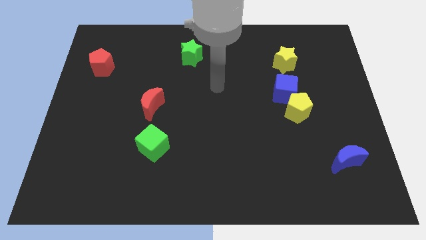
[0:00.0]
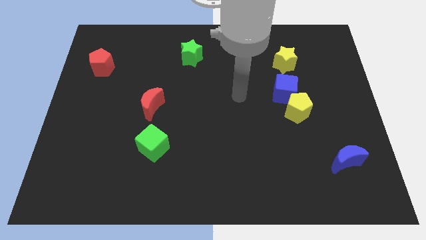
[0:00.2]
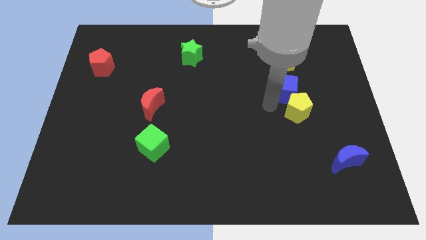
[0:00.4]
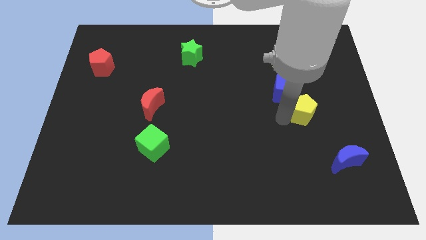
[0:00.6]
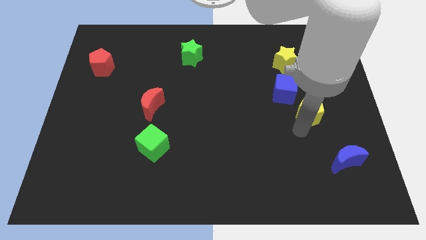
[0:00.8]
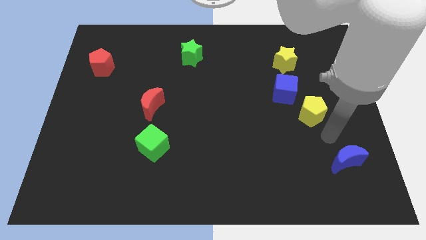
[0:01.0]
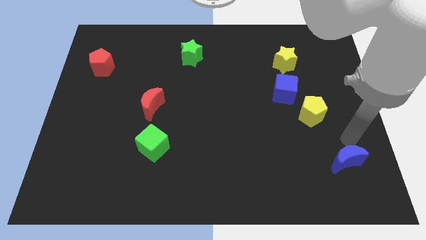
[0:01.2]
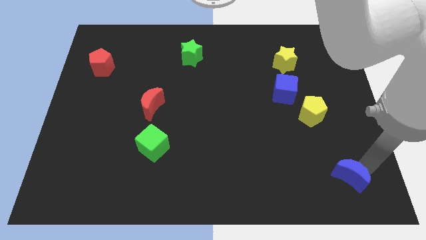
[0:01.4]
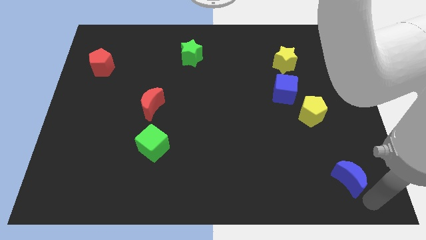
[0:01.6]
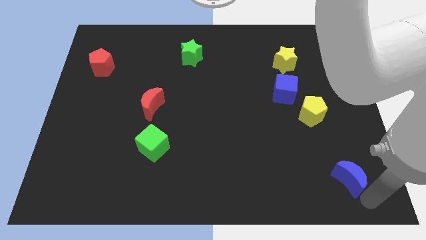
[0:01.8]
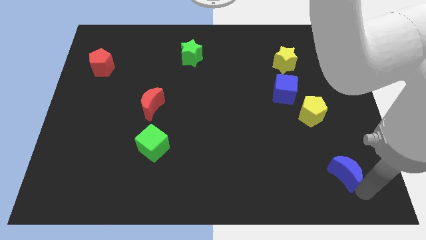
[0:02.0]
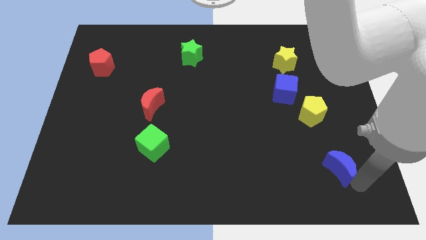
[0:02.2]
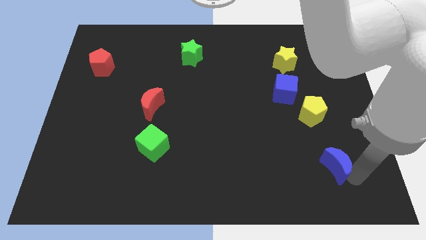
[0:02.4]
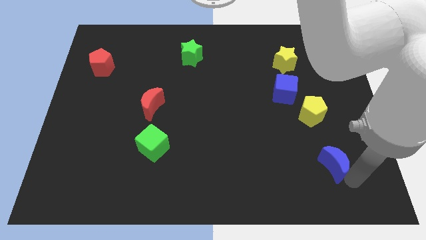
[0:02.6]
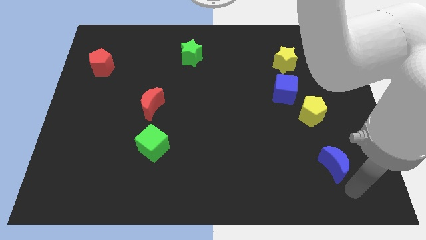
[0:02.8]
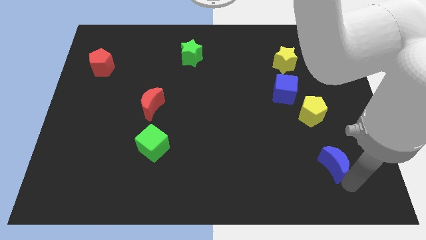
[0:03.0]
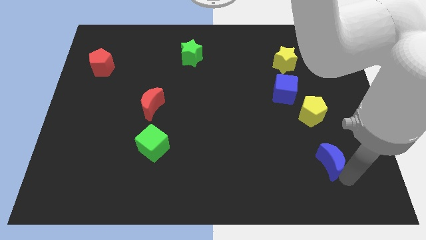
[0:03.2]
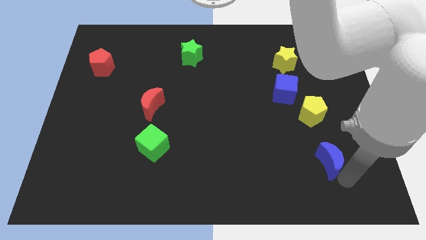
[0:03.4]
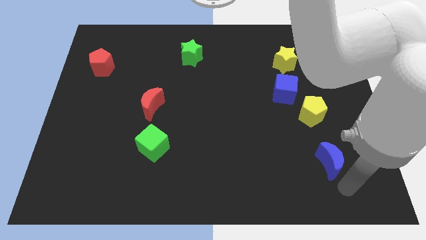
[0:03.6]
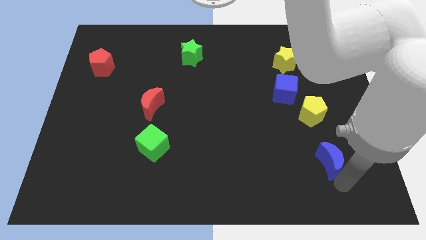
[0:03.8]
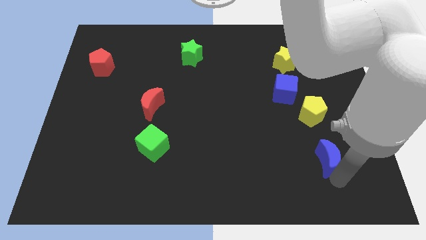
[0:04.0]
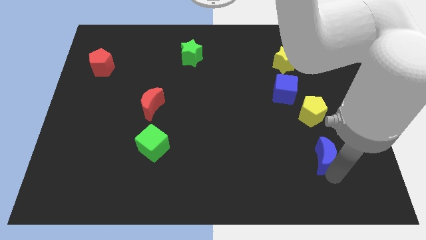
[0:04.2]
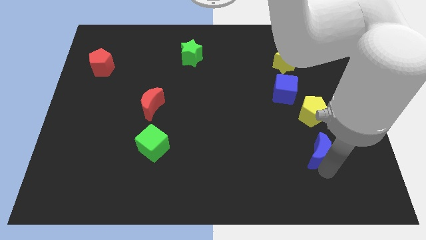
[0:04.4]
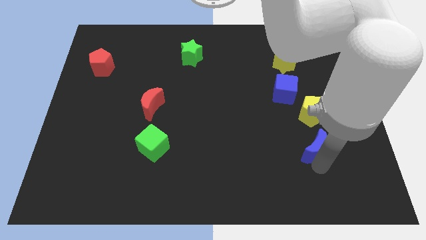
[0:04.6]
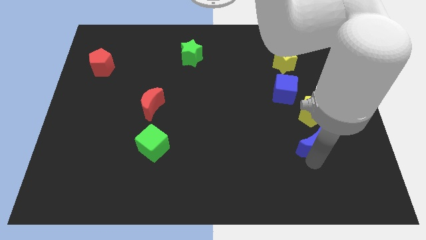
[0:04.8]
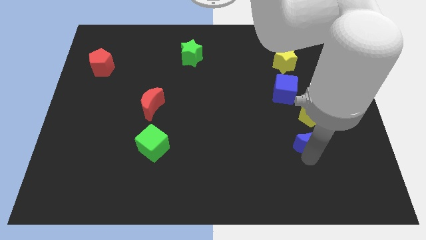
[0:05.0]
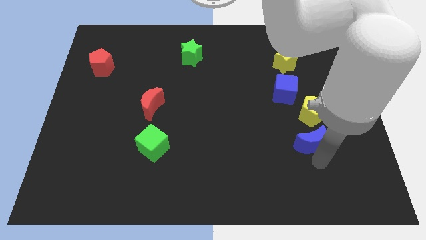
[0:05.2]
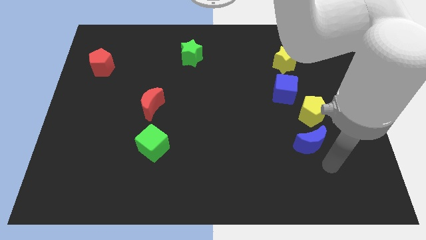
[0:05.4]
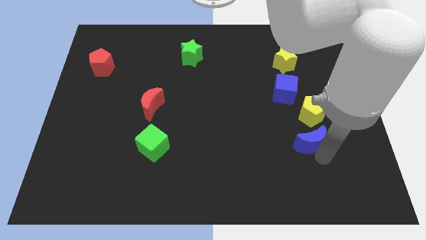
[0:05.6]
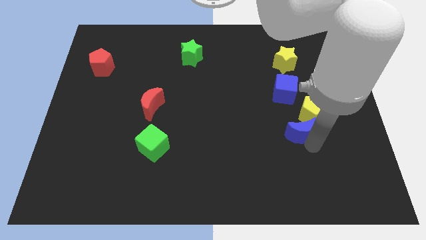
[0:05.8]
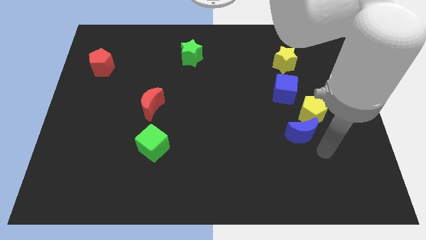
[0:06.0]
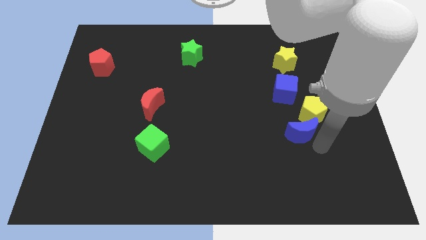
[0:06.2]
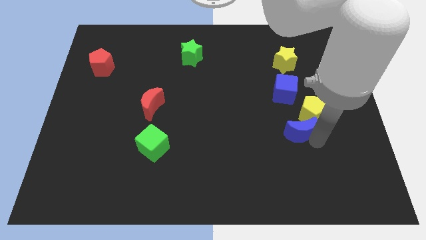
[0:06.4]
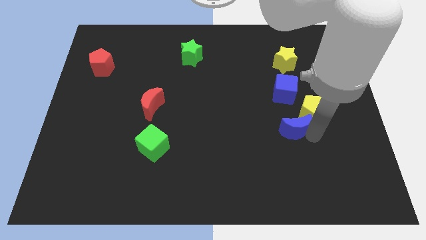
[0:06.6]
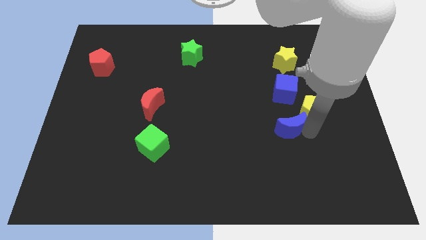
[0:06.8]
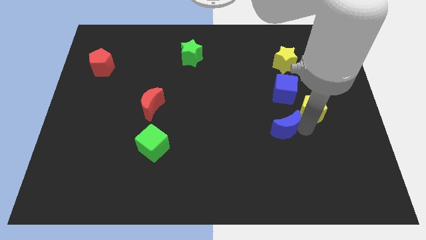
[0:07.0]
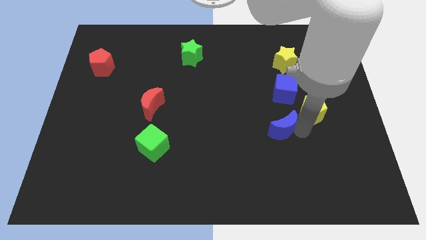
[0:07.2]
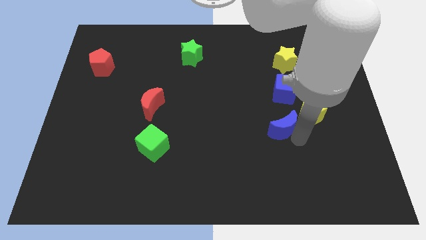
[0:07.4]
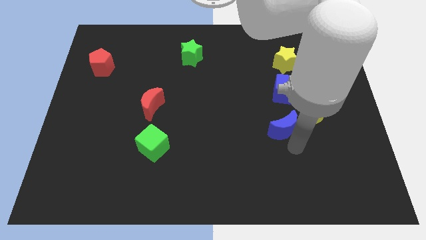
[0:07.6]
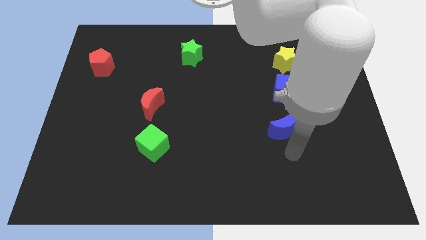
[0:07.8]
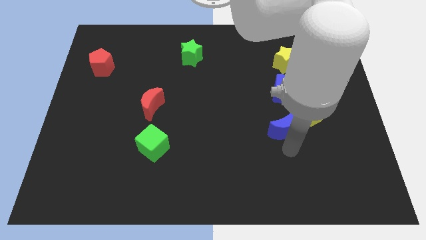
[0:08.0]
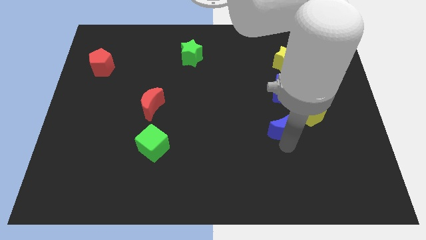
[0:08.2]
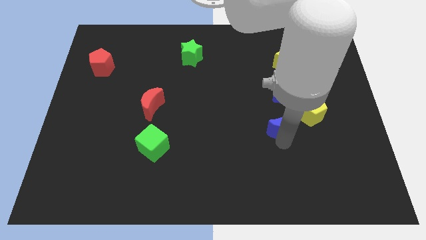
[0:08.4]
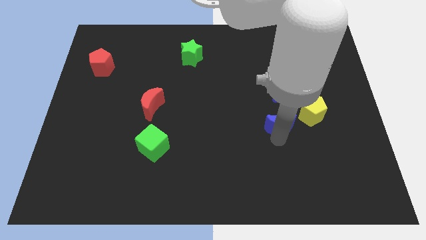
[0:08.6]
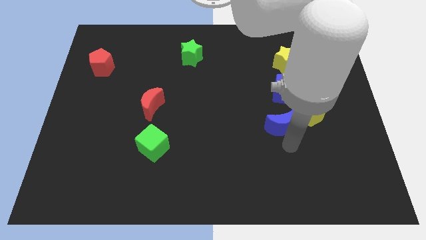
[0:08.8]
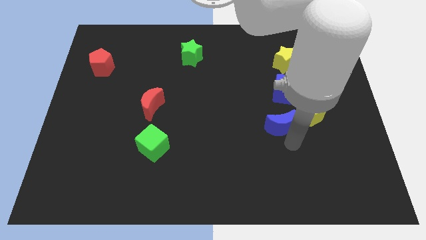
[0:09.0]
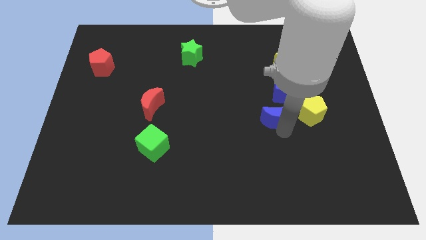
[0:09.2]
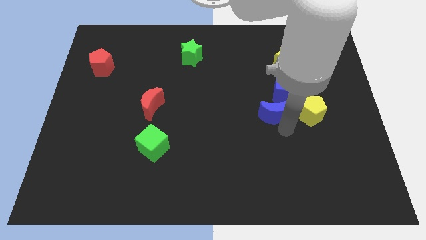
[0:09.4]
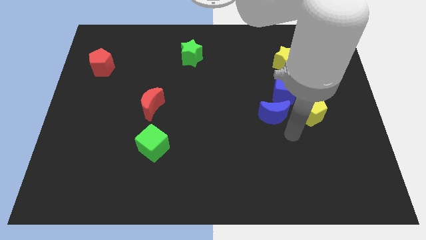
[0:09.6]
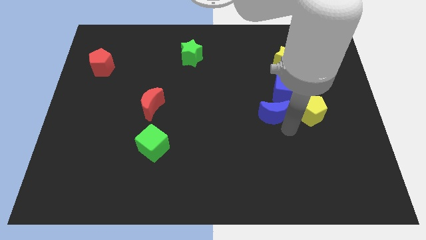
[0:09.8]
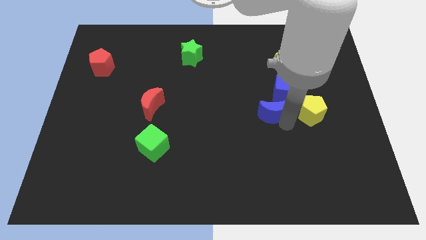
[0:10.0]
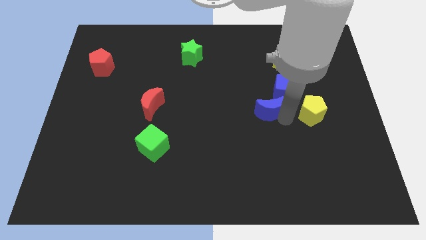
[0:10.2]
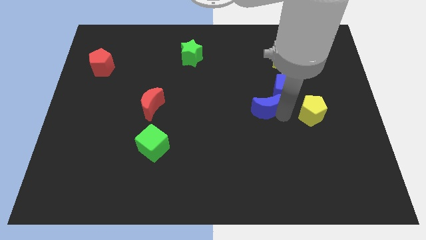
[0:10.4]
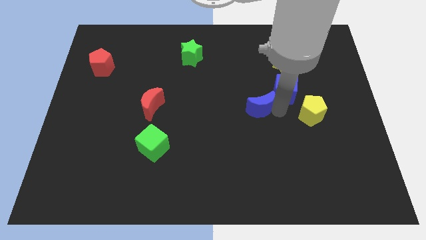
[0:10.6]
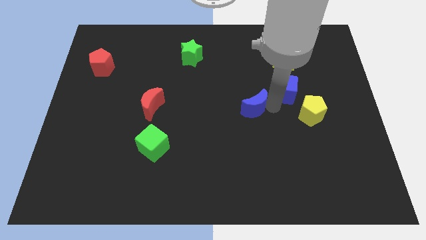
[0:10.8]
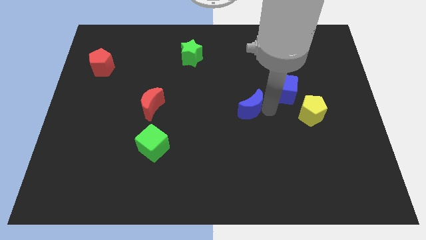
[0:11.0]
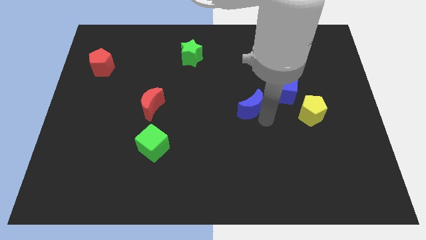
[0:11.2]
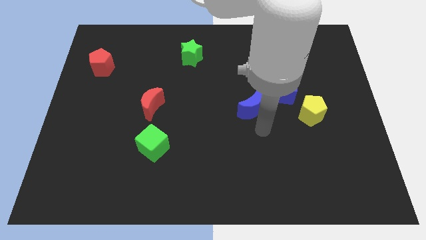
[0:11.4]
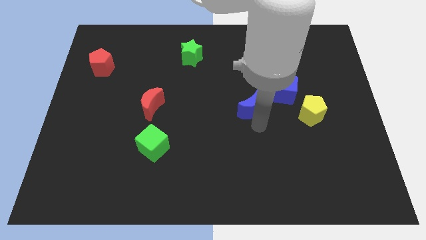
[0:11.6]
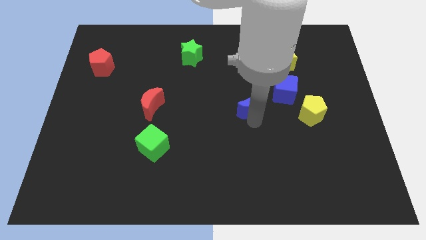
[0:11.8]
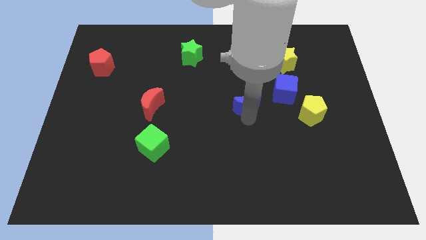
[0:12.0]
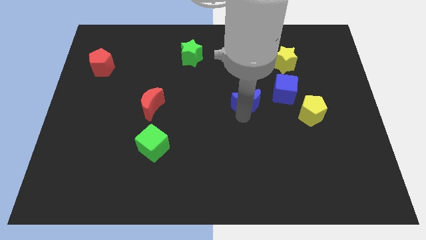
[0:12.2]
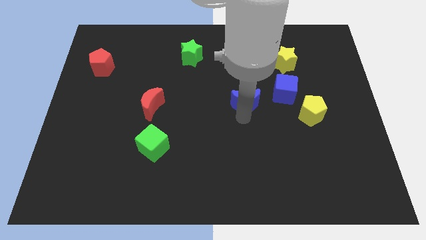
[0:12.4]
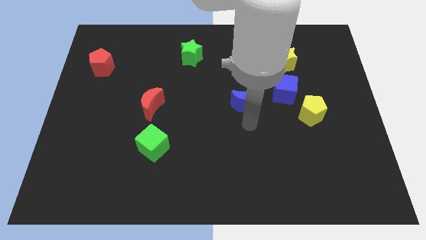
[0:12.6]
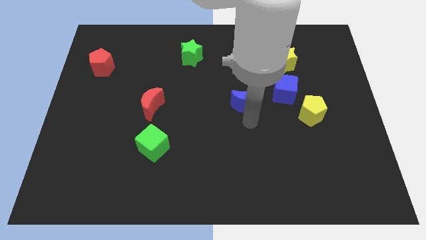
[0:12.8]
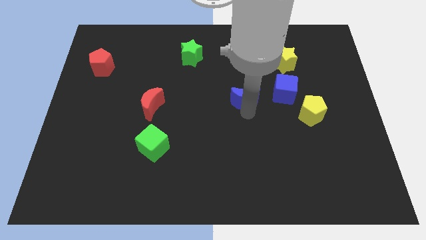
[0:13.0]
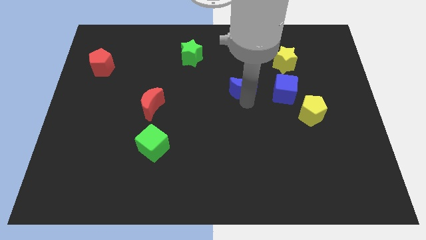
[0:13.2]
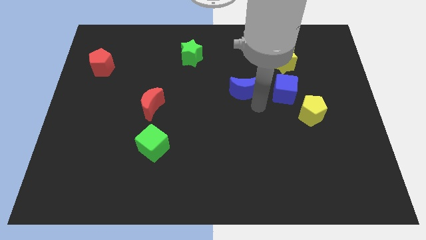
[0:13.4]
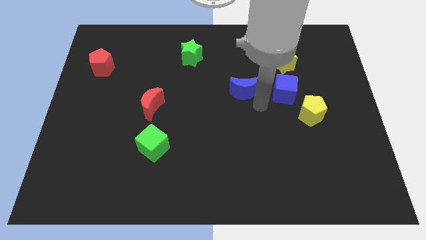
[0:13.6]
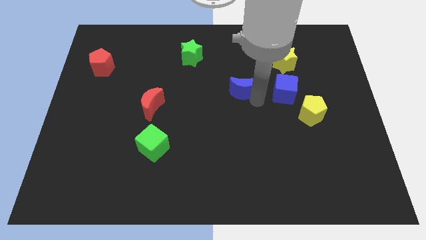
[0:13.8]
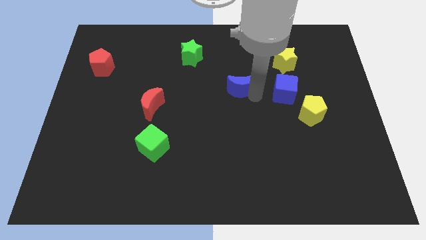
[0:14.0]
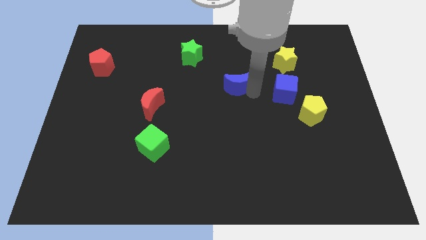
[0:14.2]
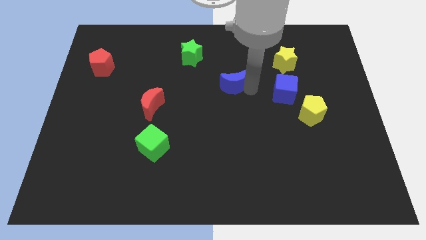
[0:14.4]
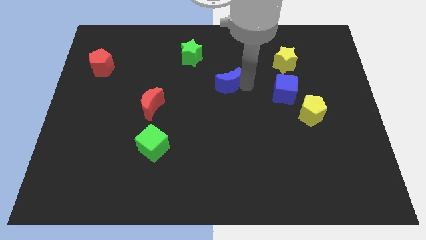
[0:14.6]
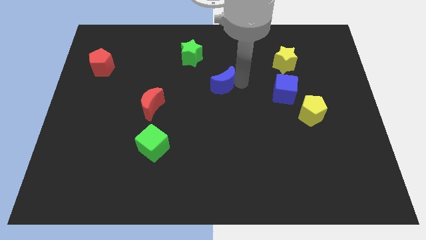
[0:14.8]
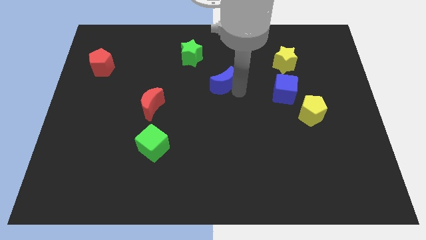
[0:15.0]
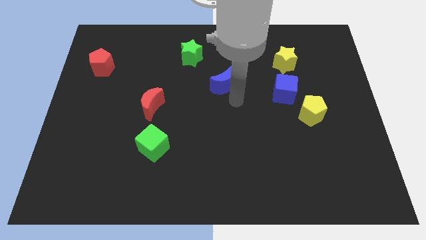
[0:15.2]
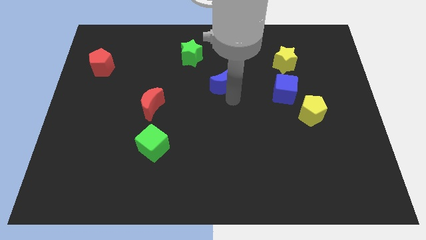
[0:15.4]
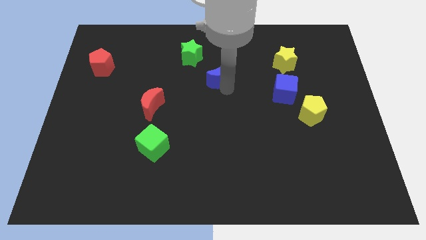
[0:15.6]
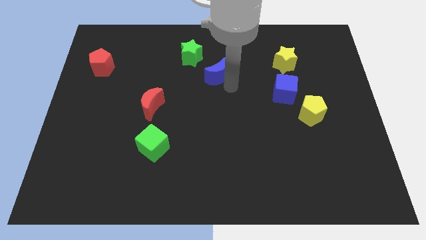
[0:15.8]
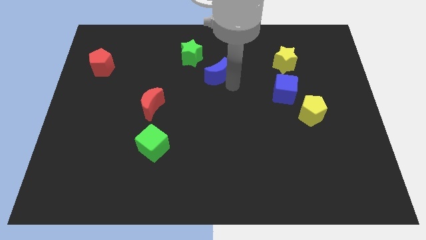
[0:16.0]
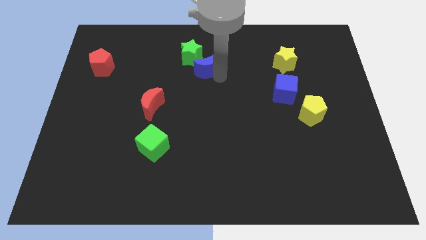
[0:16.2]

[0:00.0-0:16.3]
put the blue moon to the green star

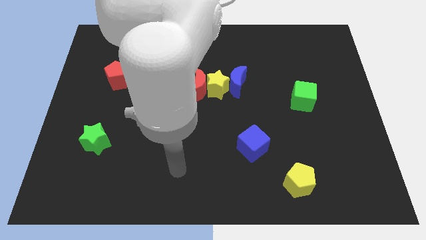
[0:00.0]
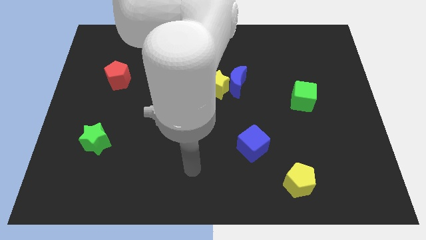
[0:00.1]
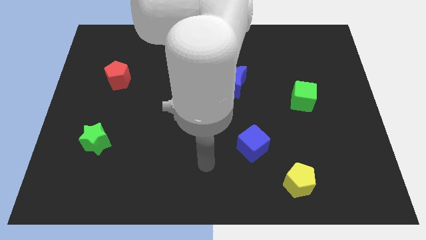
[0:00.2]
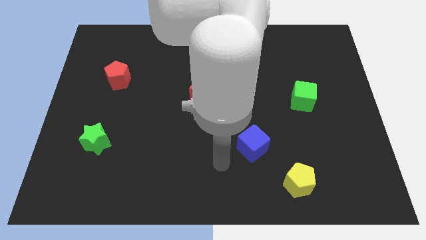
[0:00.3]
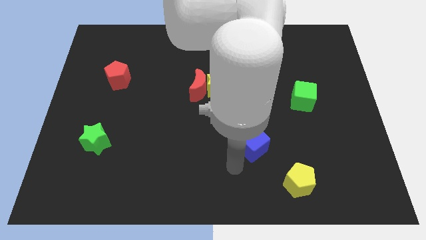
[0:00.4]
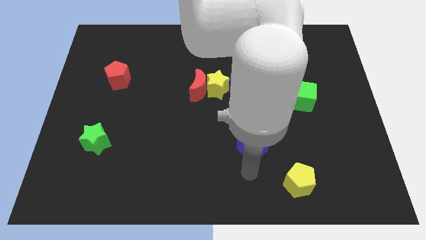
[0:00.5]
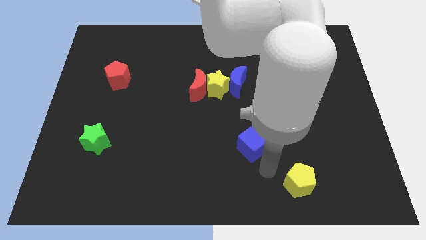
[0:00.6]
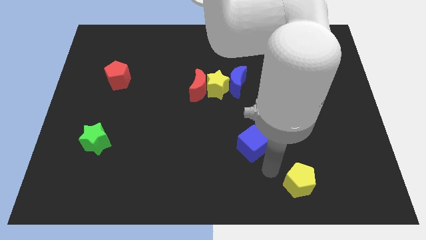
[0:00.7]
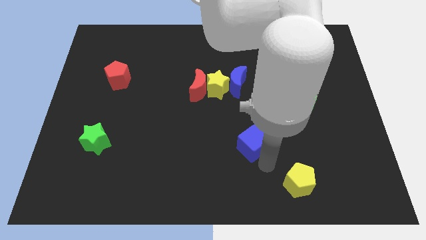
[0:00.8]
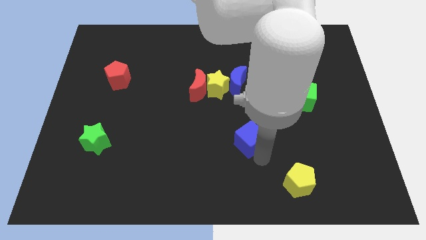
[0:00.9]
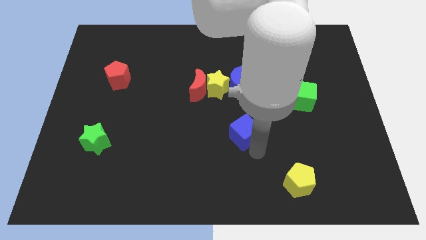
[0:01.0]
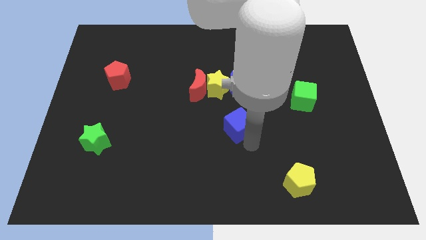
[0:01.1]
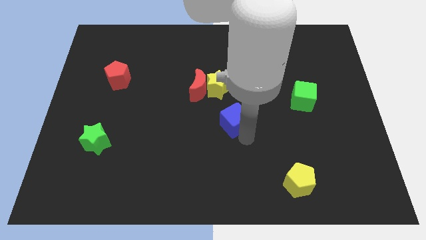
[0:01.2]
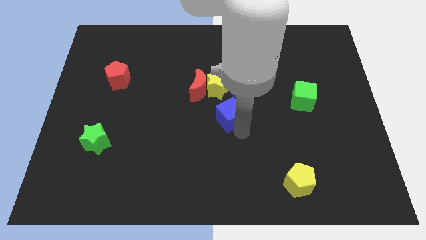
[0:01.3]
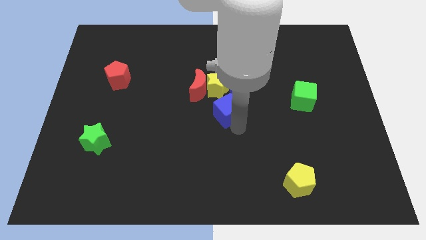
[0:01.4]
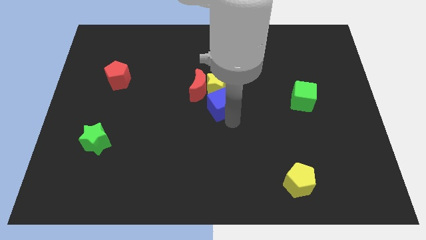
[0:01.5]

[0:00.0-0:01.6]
put the blue cube next to the yellow star
